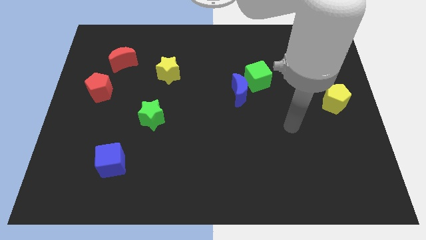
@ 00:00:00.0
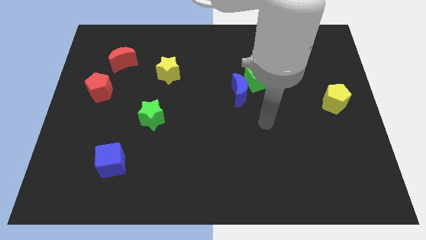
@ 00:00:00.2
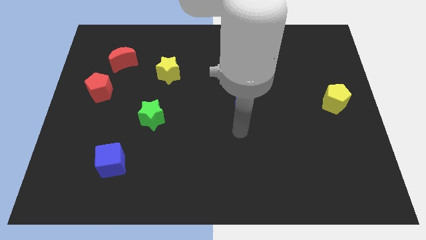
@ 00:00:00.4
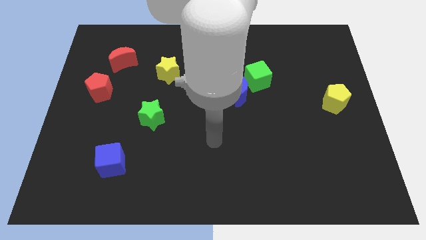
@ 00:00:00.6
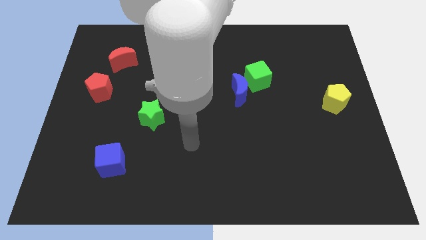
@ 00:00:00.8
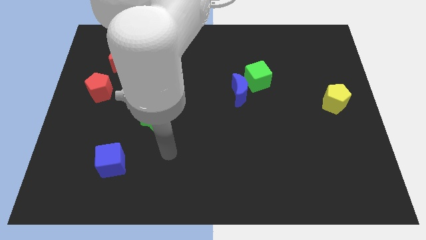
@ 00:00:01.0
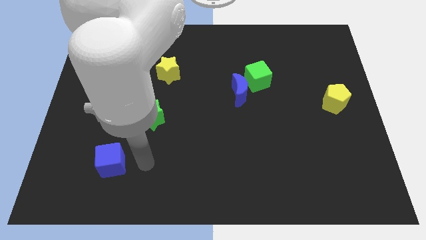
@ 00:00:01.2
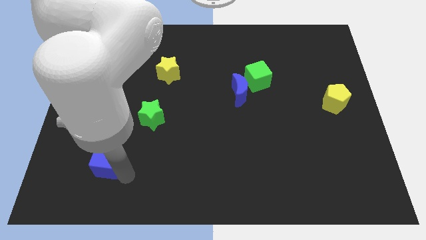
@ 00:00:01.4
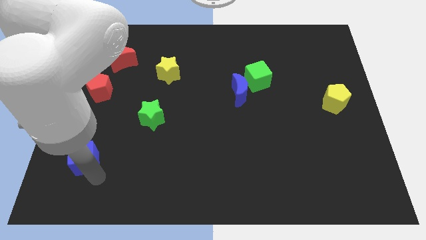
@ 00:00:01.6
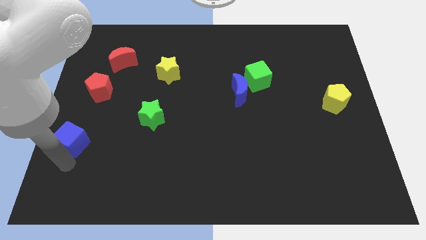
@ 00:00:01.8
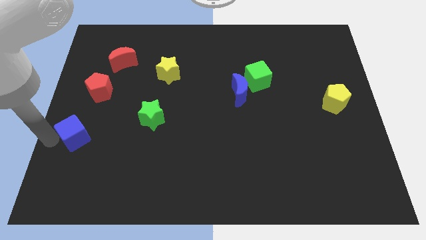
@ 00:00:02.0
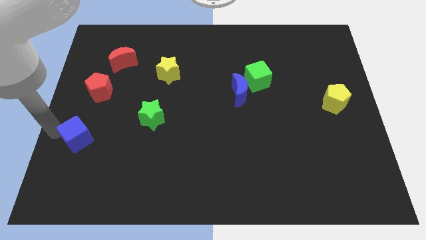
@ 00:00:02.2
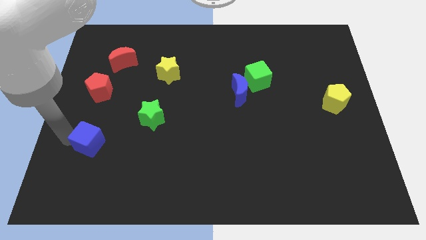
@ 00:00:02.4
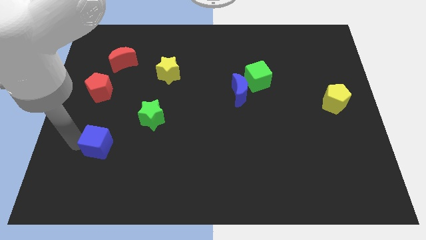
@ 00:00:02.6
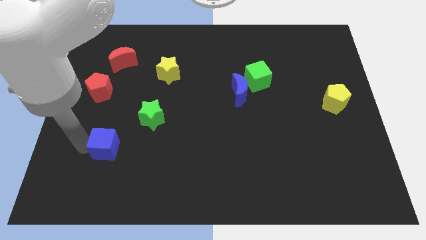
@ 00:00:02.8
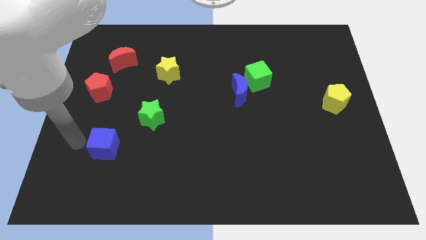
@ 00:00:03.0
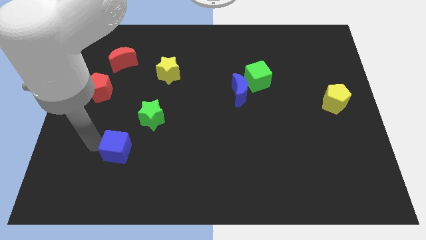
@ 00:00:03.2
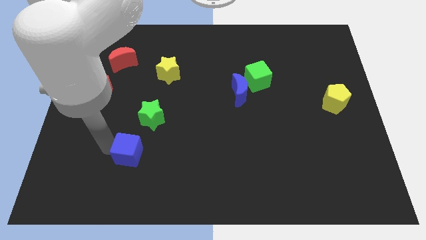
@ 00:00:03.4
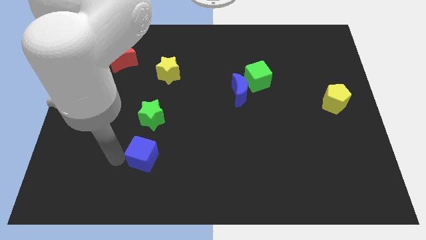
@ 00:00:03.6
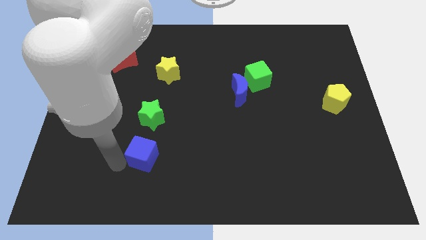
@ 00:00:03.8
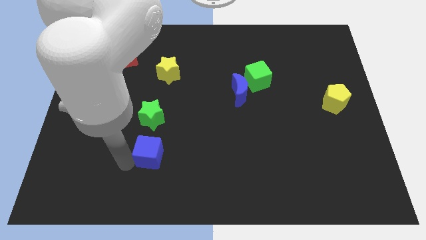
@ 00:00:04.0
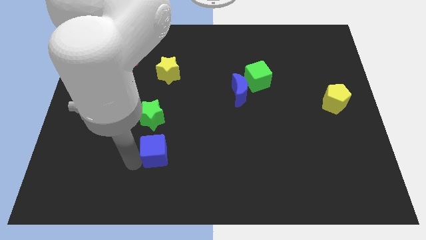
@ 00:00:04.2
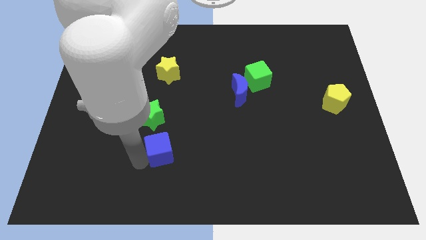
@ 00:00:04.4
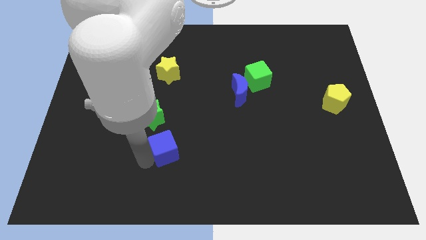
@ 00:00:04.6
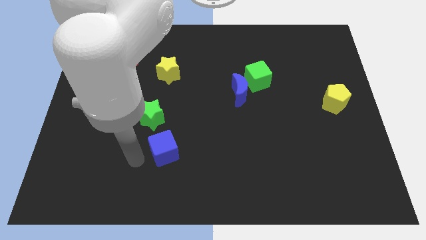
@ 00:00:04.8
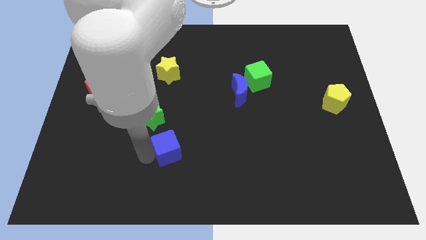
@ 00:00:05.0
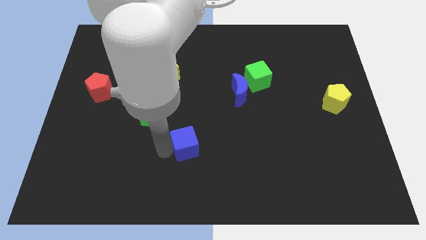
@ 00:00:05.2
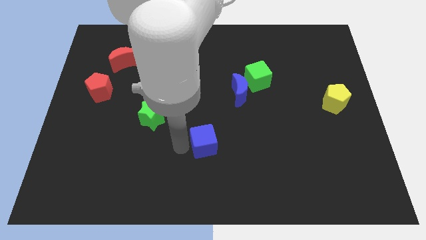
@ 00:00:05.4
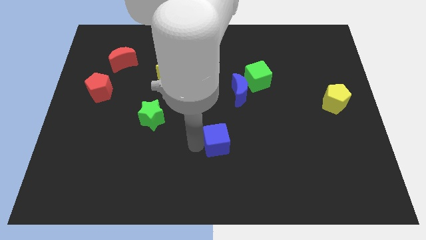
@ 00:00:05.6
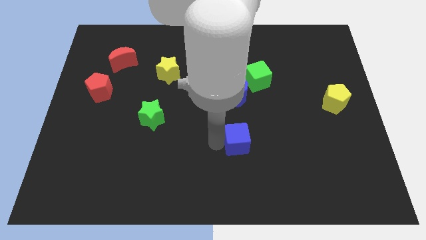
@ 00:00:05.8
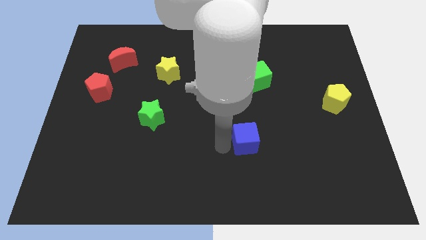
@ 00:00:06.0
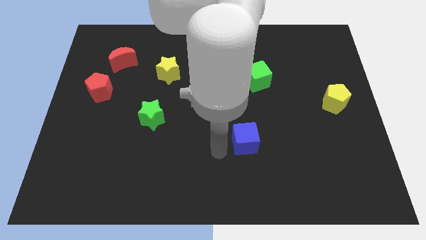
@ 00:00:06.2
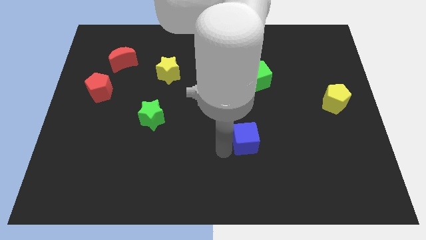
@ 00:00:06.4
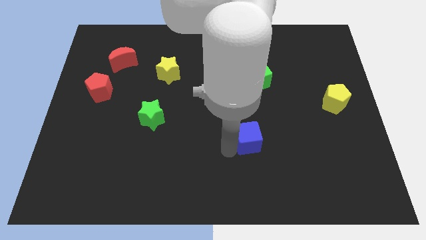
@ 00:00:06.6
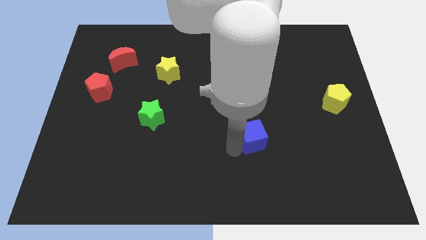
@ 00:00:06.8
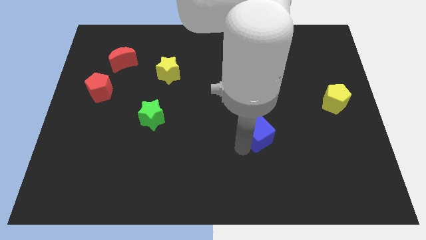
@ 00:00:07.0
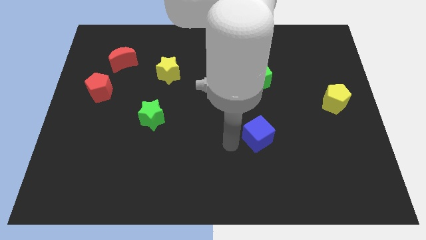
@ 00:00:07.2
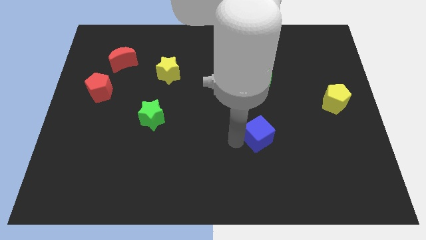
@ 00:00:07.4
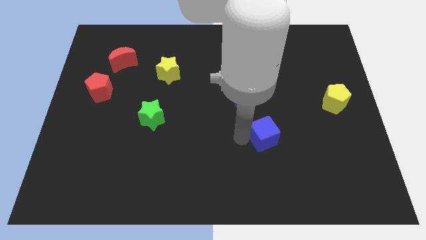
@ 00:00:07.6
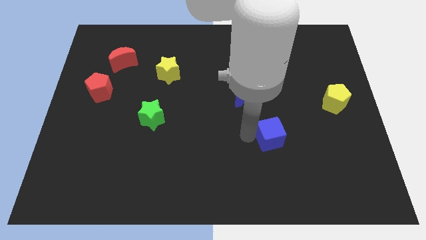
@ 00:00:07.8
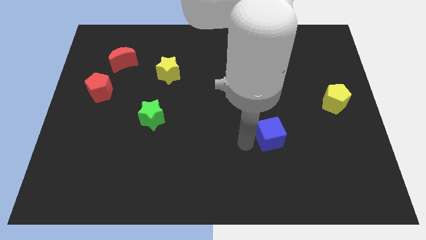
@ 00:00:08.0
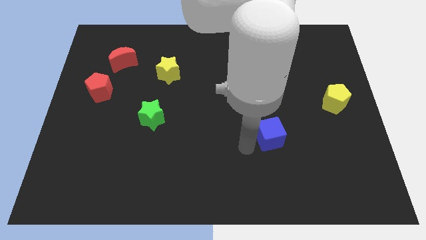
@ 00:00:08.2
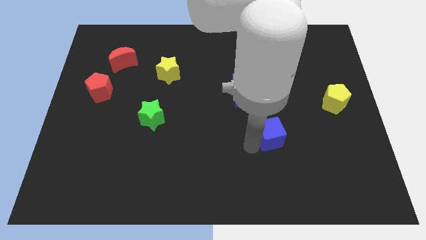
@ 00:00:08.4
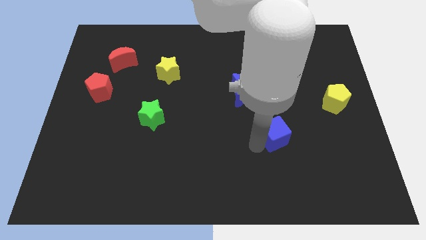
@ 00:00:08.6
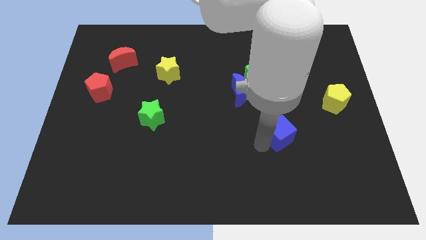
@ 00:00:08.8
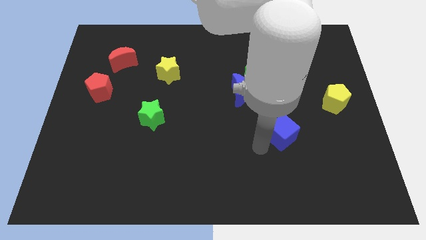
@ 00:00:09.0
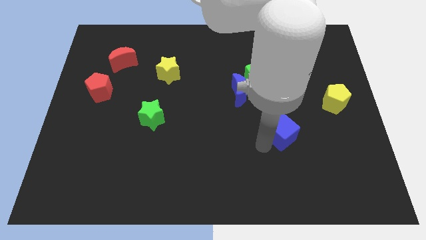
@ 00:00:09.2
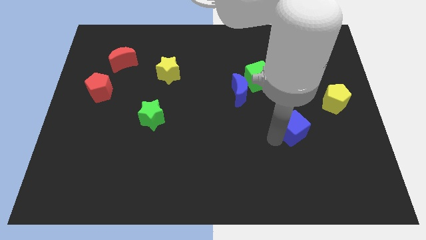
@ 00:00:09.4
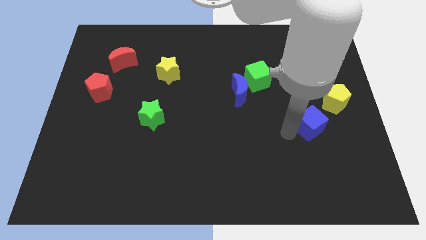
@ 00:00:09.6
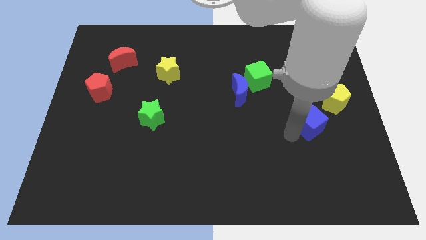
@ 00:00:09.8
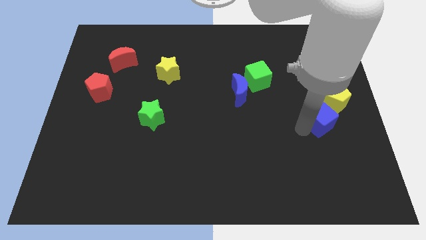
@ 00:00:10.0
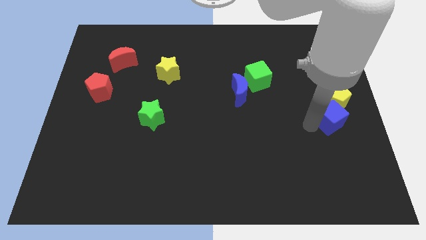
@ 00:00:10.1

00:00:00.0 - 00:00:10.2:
slide the blue cube to the center right

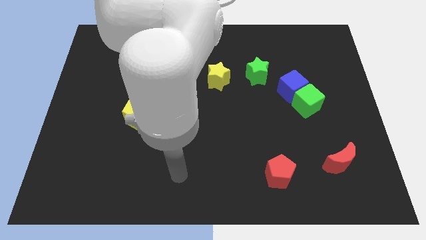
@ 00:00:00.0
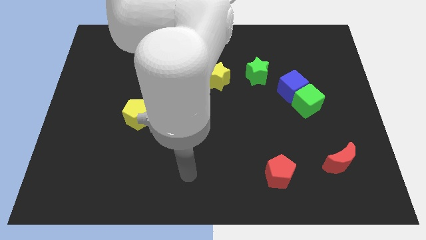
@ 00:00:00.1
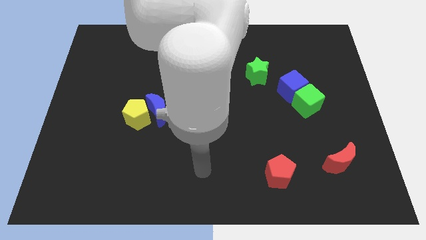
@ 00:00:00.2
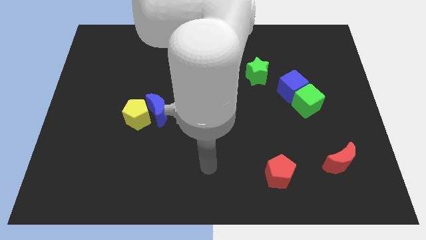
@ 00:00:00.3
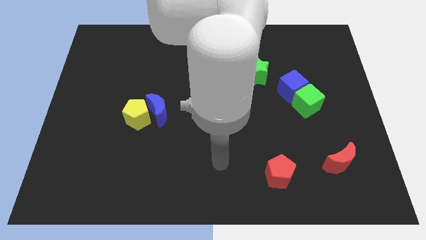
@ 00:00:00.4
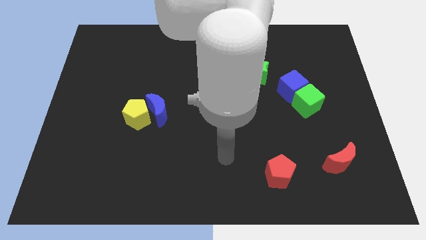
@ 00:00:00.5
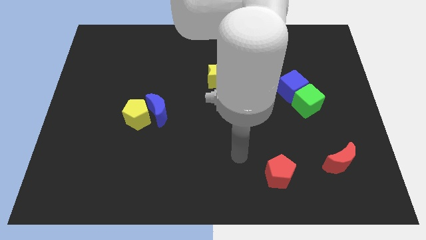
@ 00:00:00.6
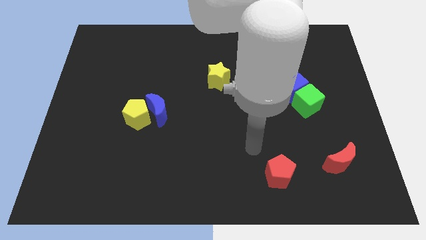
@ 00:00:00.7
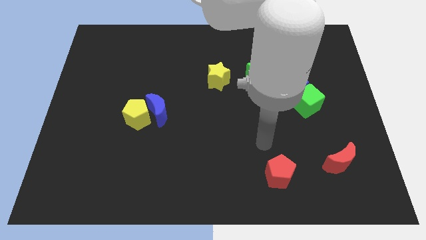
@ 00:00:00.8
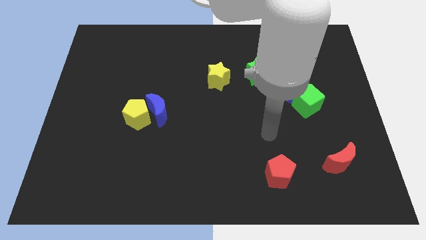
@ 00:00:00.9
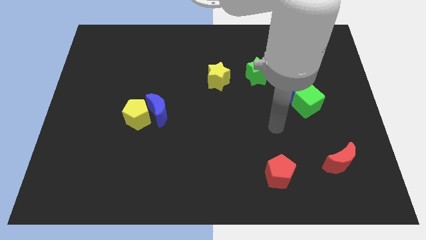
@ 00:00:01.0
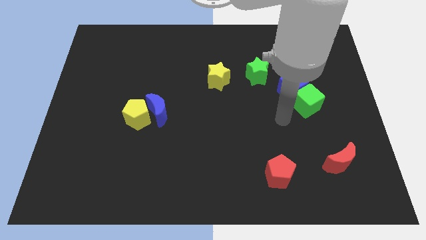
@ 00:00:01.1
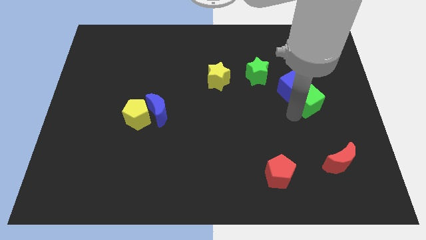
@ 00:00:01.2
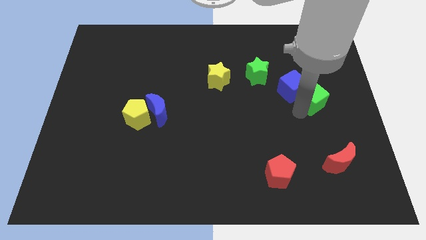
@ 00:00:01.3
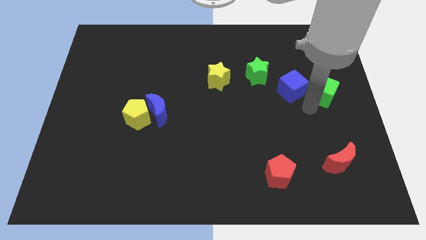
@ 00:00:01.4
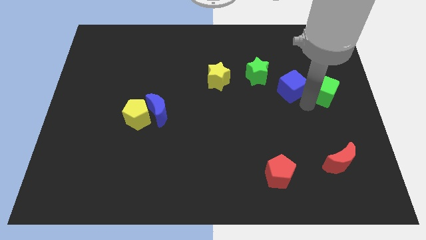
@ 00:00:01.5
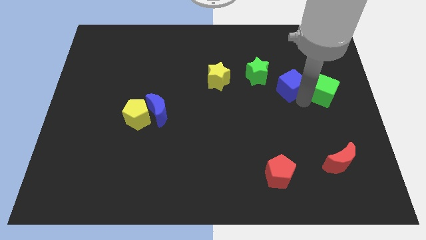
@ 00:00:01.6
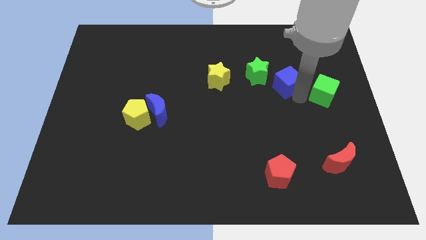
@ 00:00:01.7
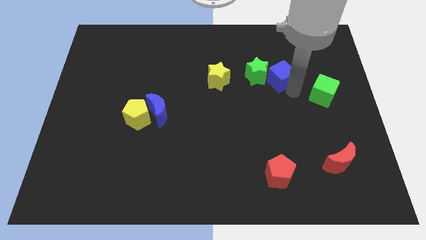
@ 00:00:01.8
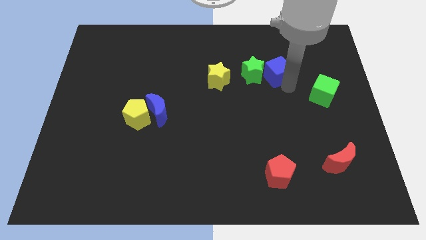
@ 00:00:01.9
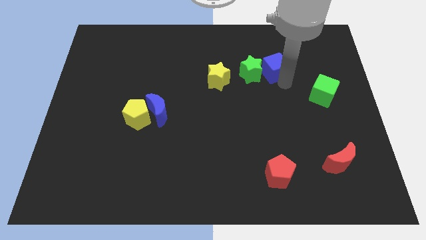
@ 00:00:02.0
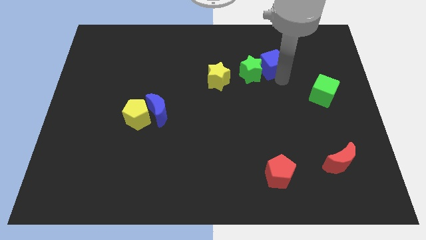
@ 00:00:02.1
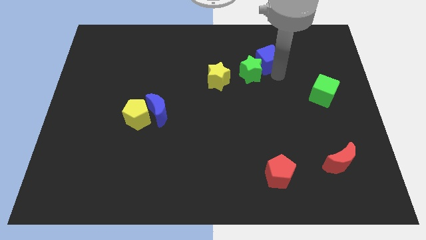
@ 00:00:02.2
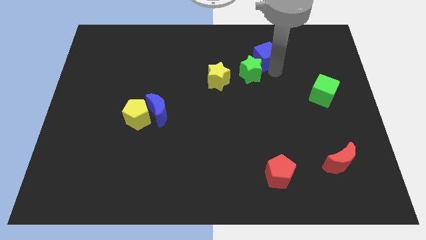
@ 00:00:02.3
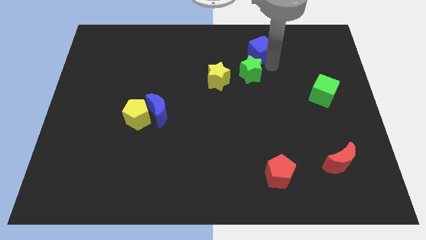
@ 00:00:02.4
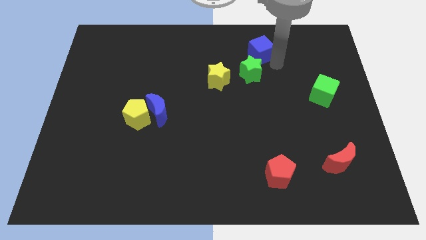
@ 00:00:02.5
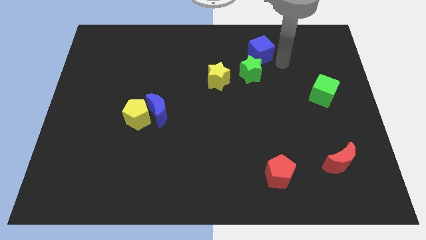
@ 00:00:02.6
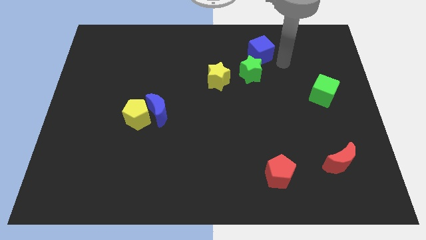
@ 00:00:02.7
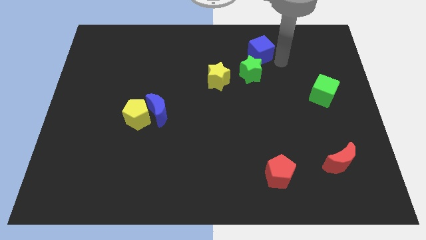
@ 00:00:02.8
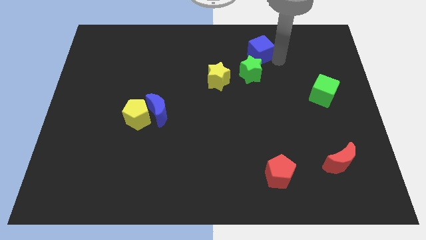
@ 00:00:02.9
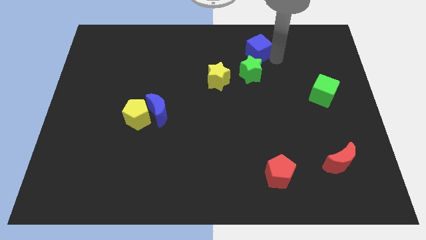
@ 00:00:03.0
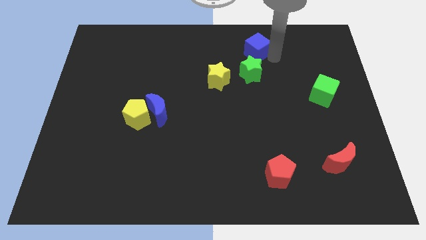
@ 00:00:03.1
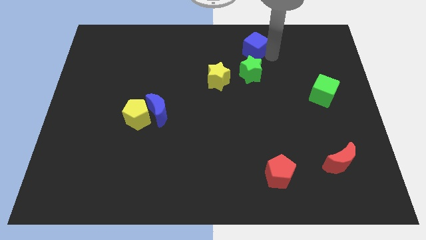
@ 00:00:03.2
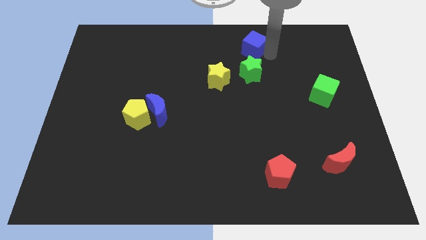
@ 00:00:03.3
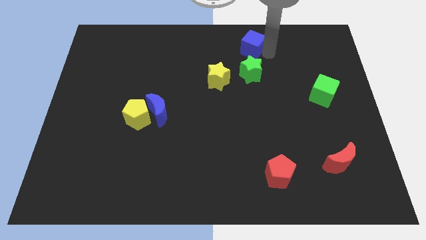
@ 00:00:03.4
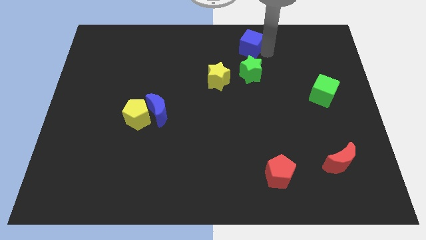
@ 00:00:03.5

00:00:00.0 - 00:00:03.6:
put the blue cube to the top
